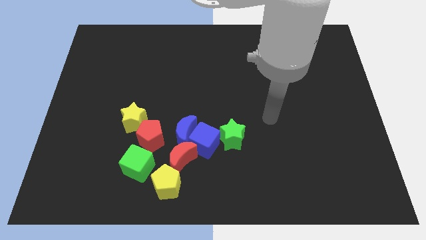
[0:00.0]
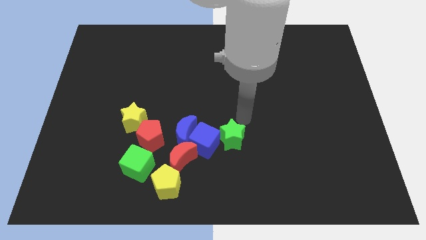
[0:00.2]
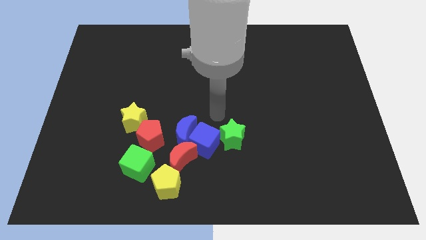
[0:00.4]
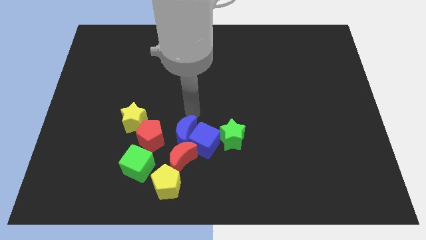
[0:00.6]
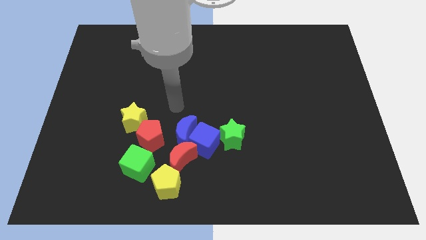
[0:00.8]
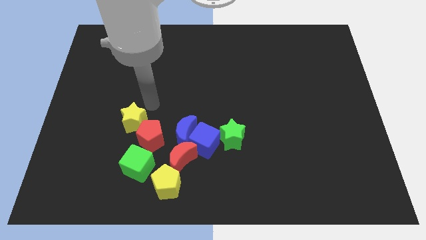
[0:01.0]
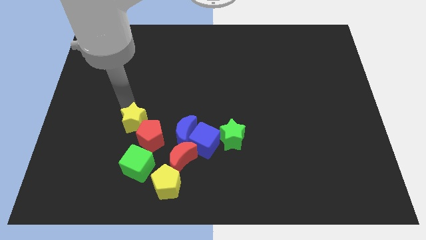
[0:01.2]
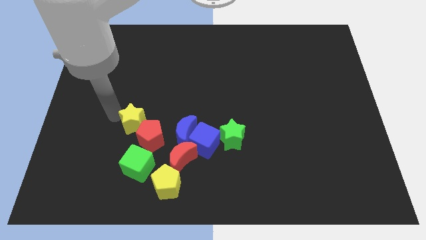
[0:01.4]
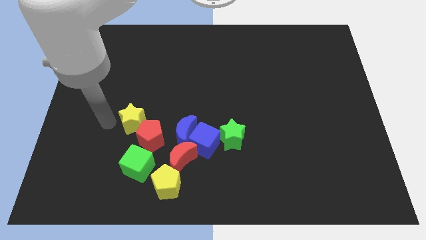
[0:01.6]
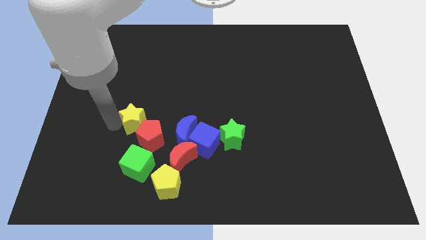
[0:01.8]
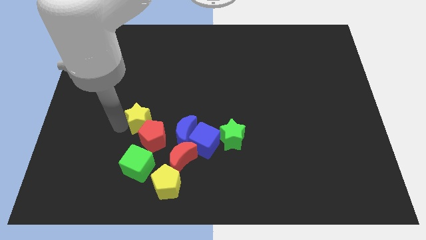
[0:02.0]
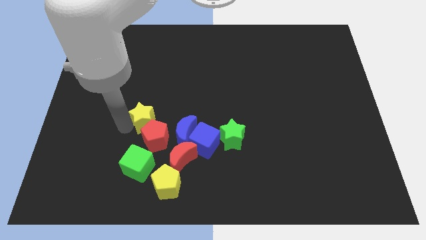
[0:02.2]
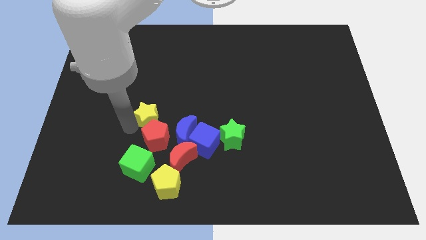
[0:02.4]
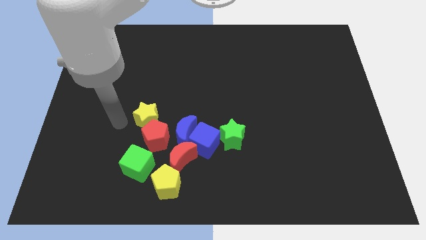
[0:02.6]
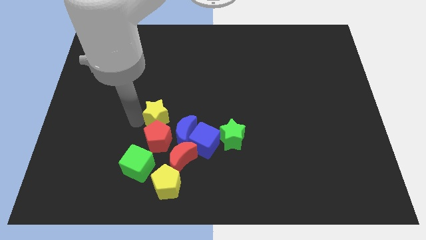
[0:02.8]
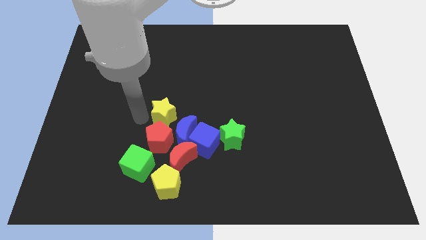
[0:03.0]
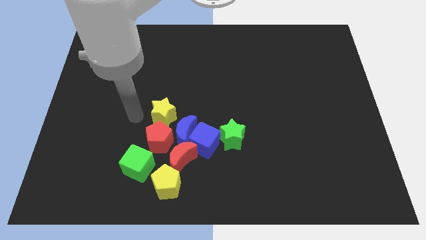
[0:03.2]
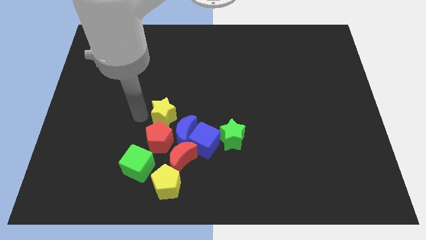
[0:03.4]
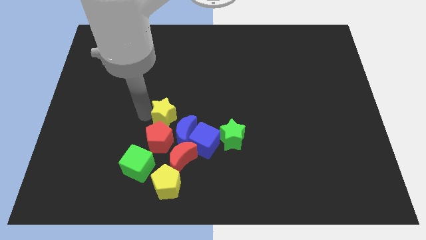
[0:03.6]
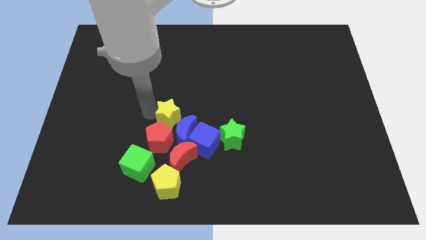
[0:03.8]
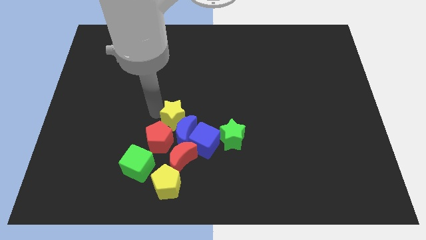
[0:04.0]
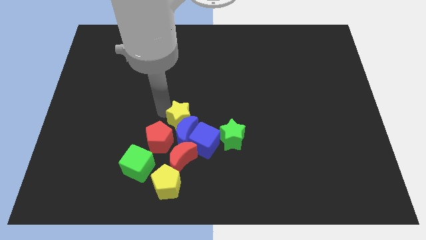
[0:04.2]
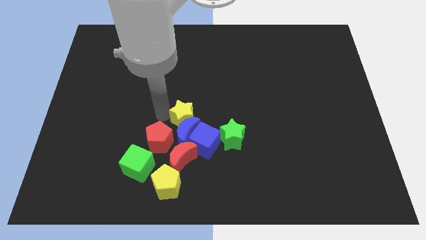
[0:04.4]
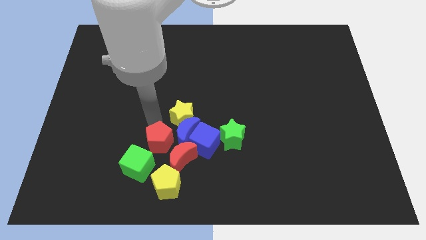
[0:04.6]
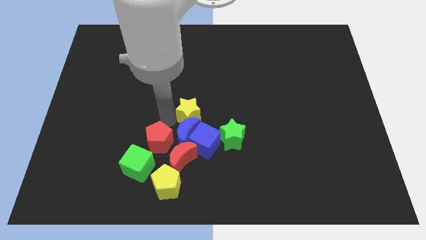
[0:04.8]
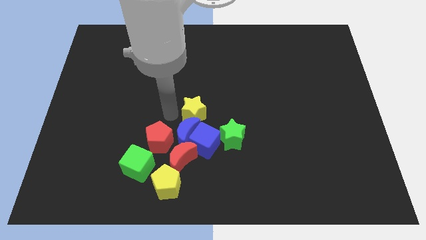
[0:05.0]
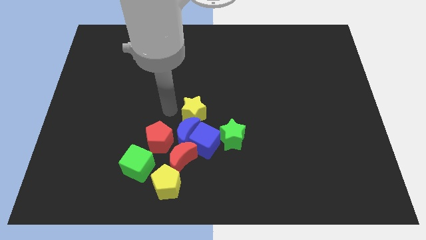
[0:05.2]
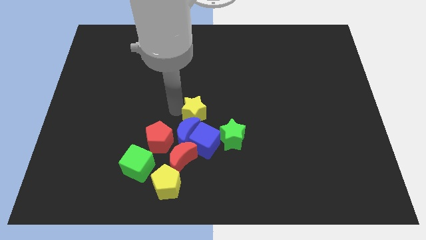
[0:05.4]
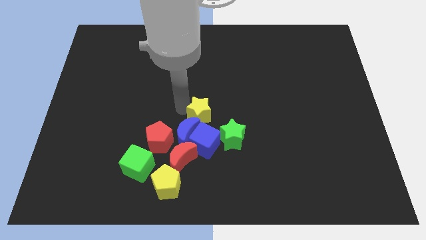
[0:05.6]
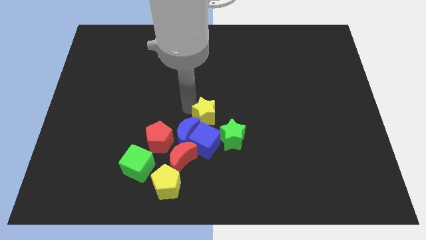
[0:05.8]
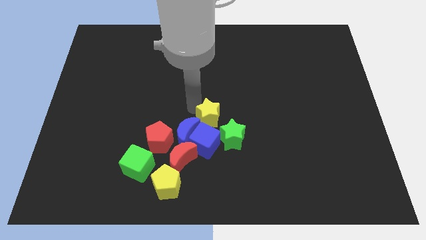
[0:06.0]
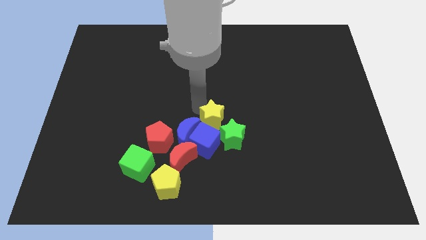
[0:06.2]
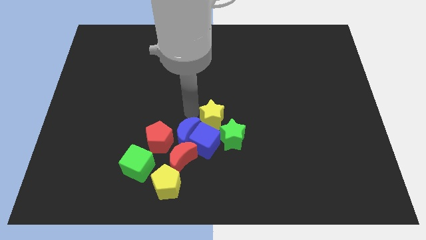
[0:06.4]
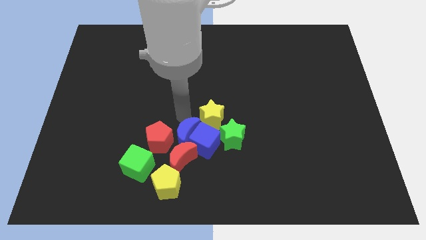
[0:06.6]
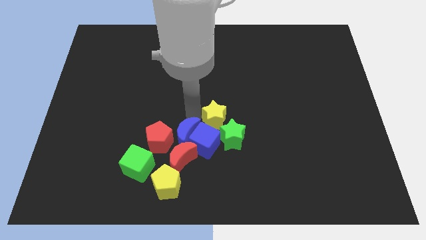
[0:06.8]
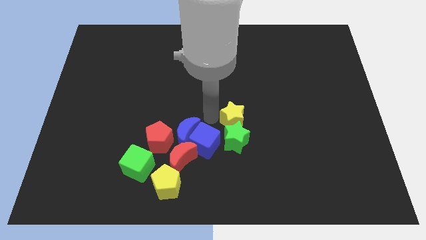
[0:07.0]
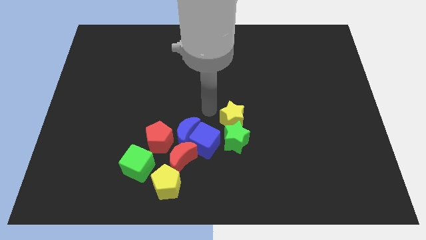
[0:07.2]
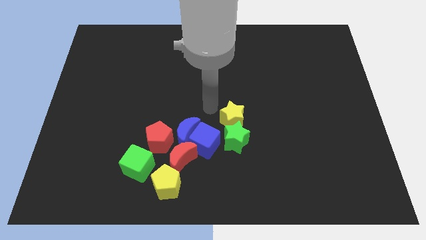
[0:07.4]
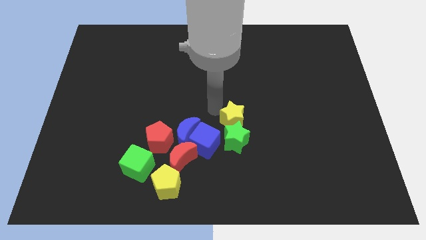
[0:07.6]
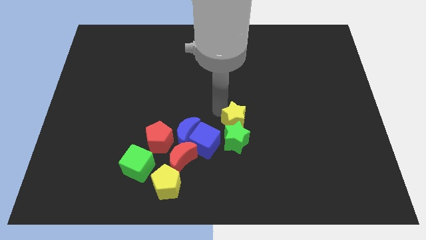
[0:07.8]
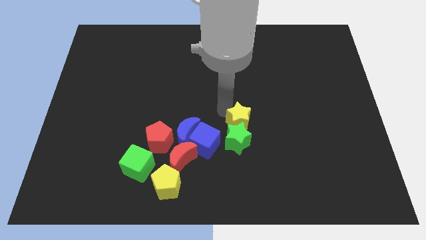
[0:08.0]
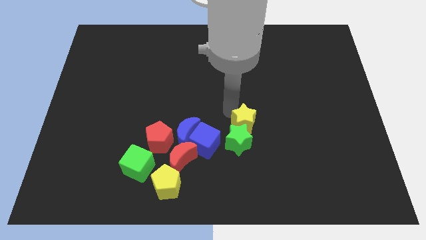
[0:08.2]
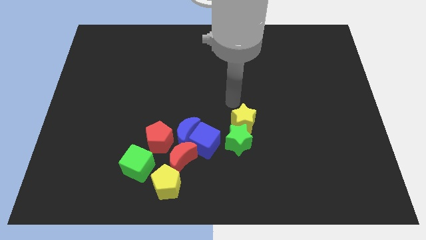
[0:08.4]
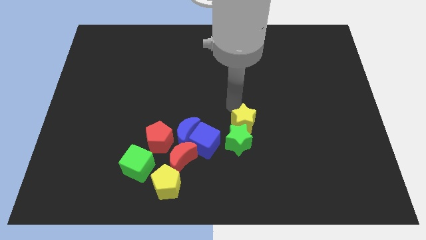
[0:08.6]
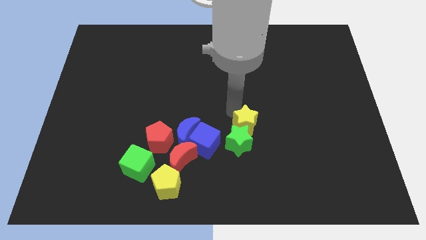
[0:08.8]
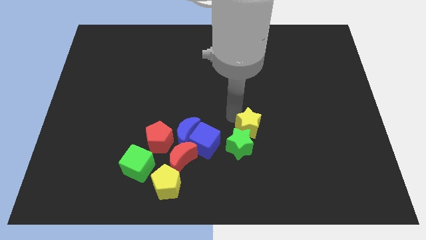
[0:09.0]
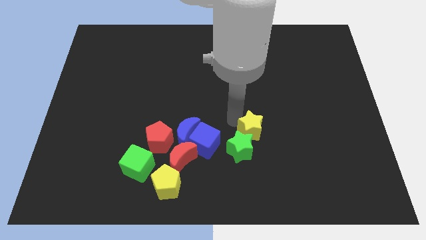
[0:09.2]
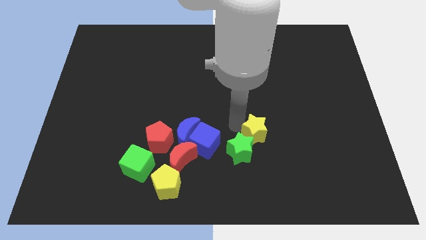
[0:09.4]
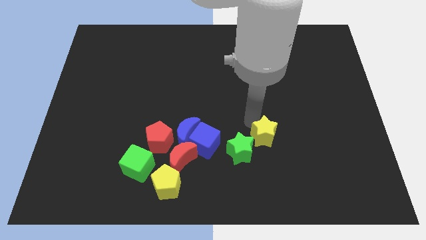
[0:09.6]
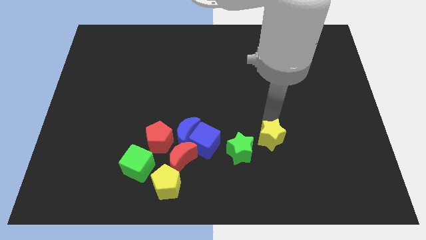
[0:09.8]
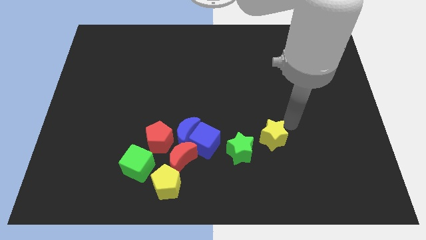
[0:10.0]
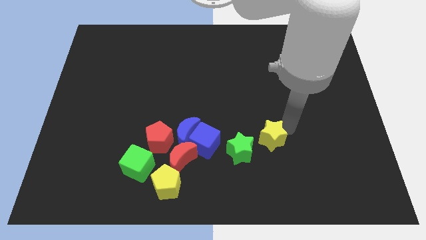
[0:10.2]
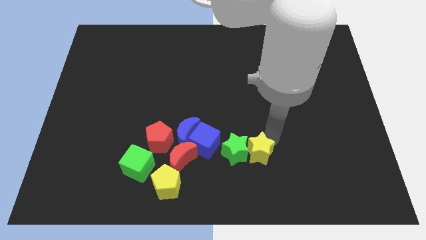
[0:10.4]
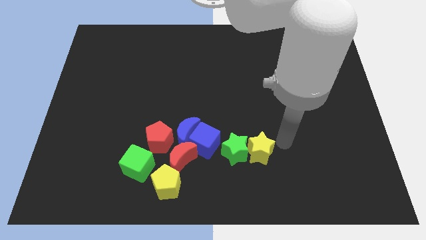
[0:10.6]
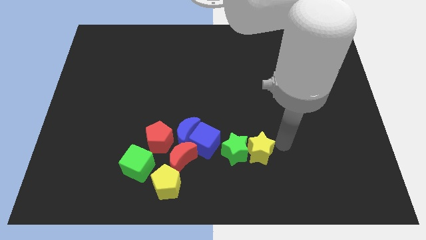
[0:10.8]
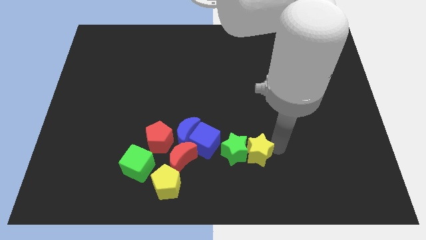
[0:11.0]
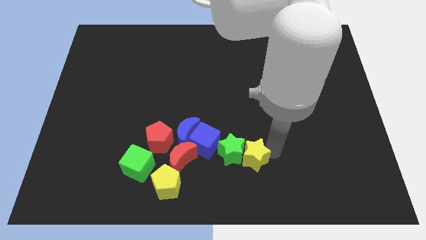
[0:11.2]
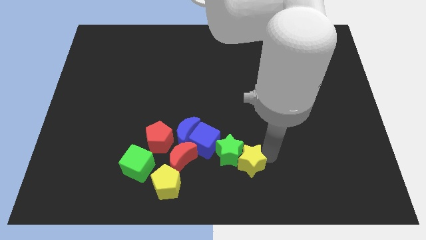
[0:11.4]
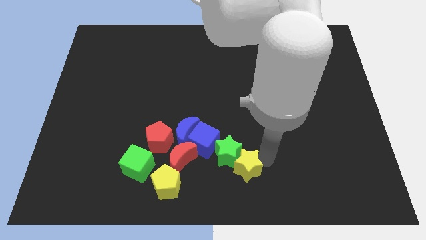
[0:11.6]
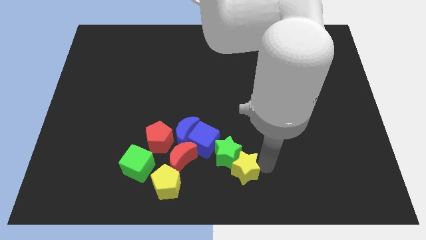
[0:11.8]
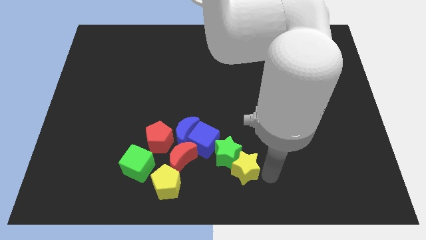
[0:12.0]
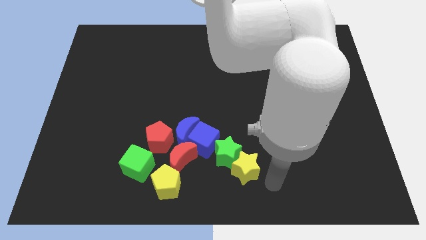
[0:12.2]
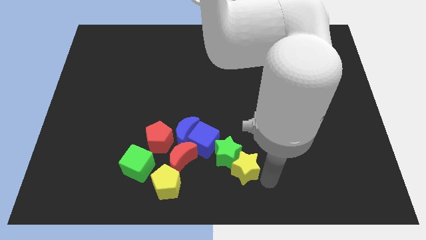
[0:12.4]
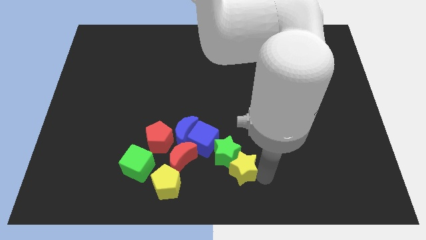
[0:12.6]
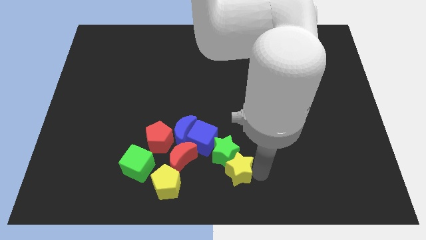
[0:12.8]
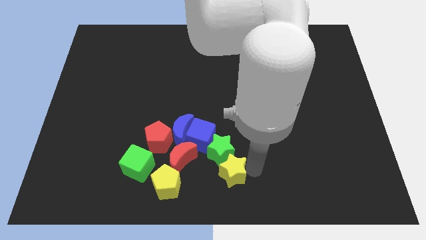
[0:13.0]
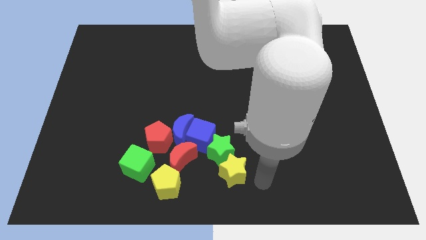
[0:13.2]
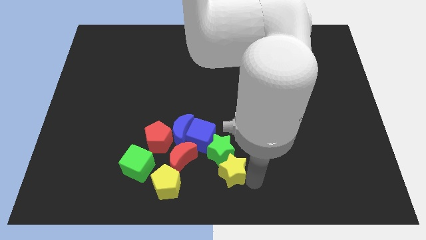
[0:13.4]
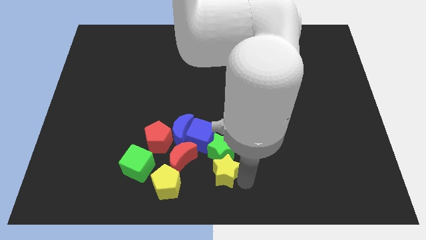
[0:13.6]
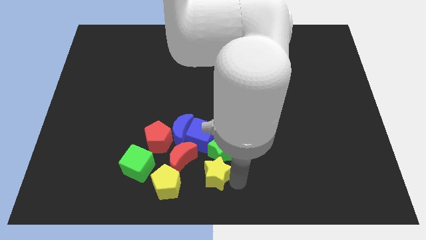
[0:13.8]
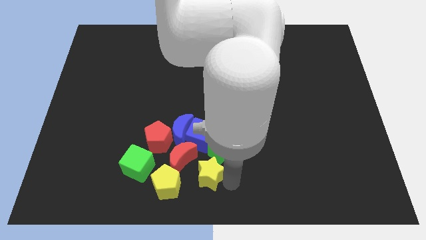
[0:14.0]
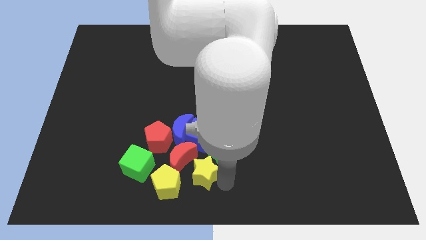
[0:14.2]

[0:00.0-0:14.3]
put the yellow star next to the red moon
